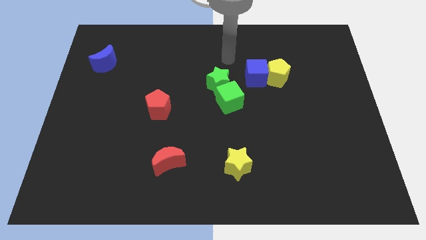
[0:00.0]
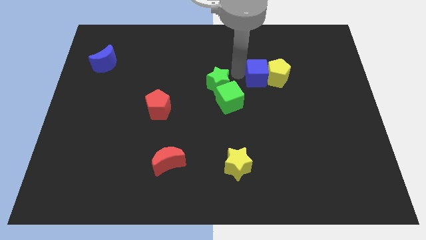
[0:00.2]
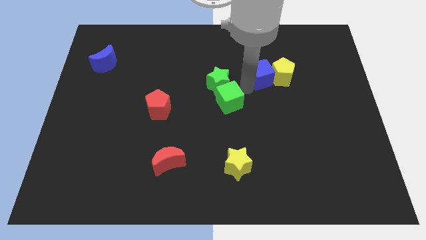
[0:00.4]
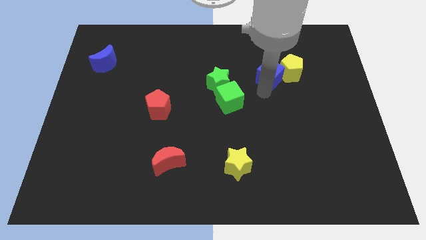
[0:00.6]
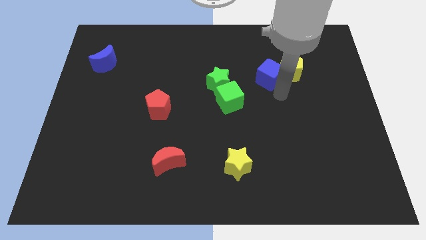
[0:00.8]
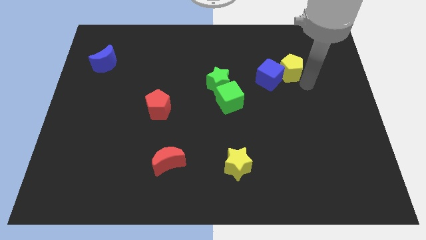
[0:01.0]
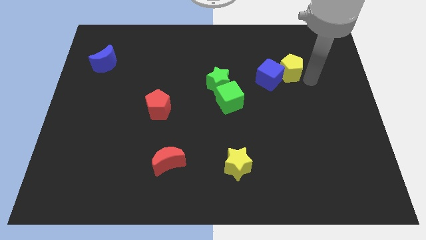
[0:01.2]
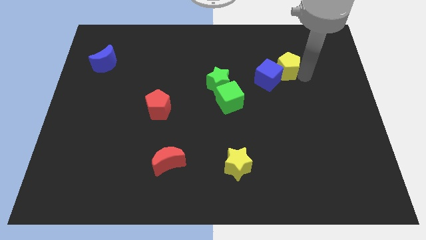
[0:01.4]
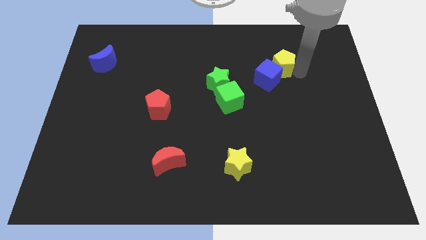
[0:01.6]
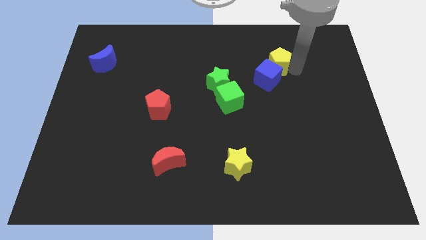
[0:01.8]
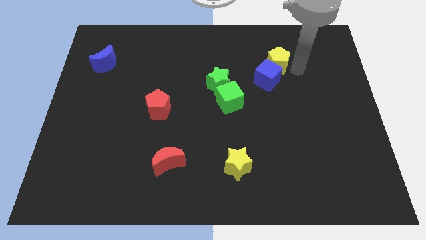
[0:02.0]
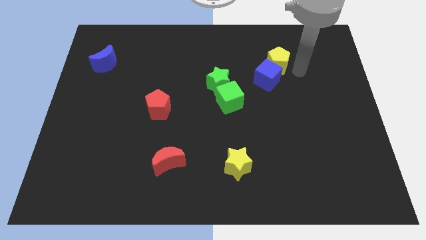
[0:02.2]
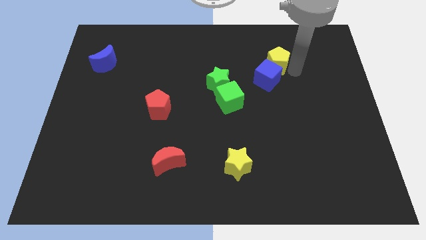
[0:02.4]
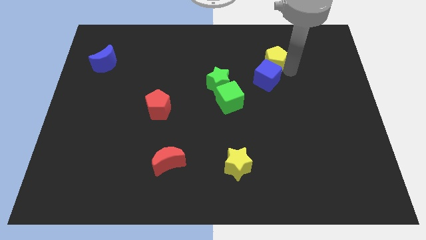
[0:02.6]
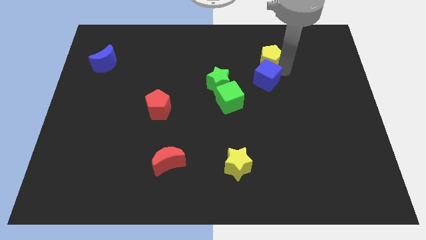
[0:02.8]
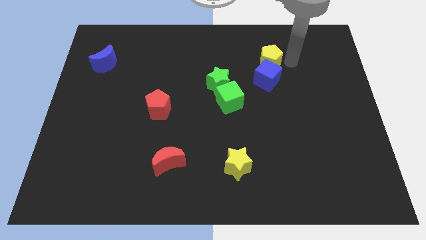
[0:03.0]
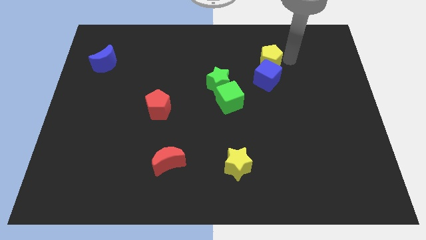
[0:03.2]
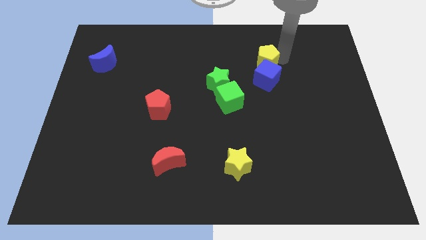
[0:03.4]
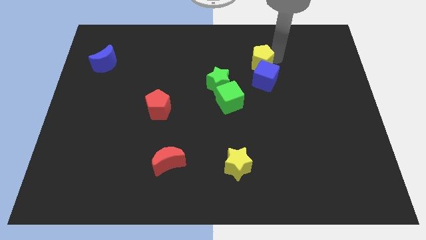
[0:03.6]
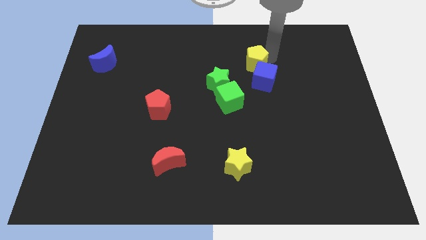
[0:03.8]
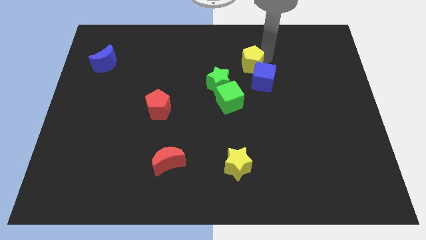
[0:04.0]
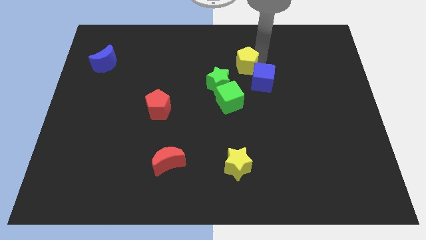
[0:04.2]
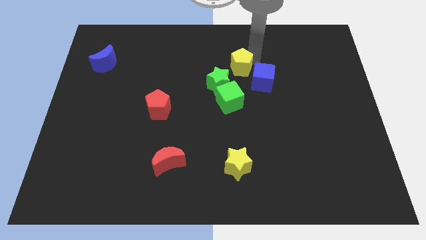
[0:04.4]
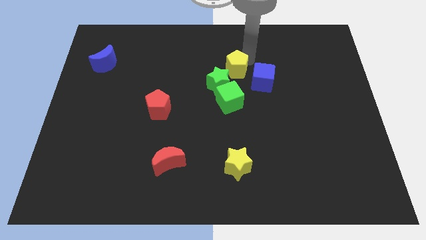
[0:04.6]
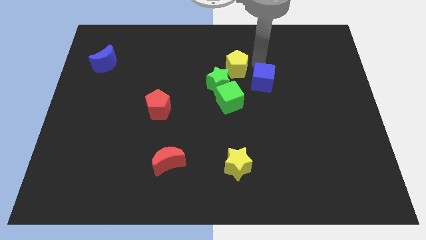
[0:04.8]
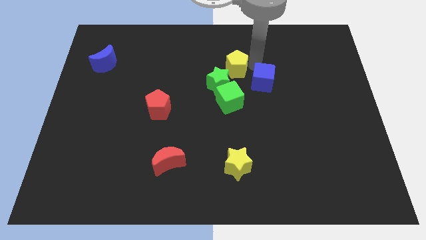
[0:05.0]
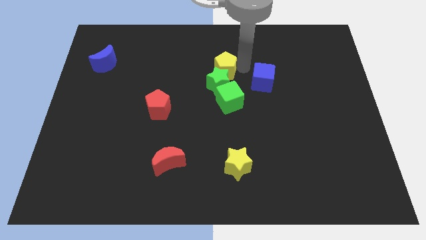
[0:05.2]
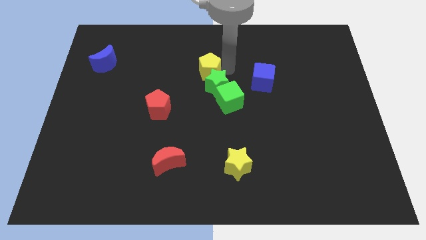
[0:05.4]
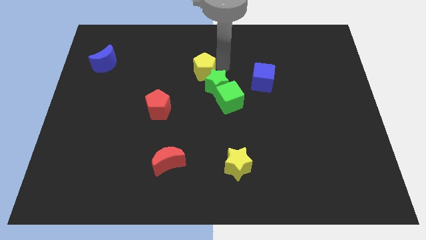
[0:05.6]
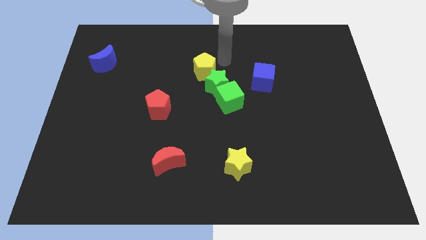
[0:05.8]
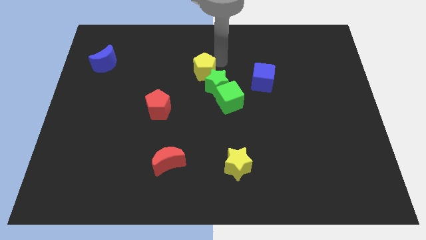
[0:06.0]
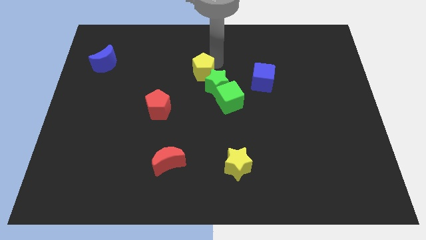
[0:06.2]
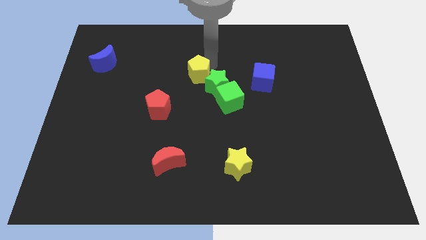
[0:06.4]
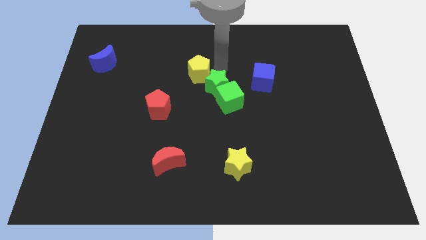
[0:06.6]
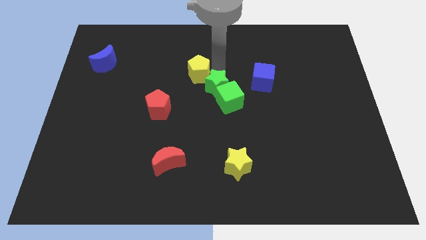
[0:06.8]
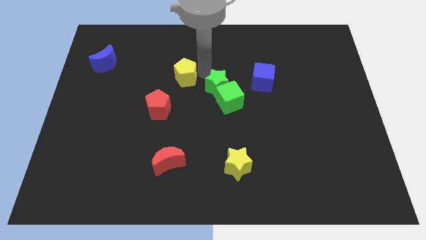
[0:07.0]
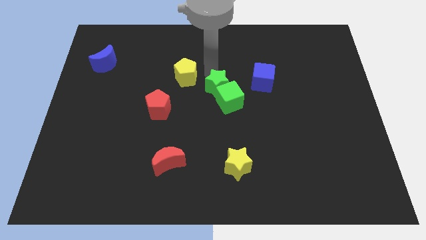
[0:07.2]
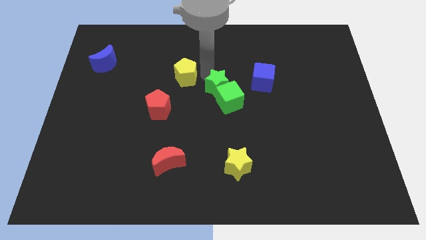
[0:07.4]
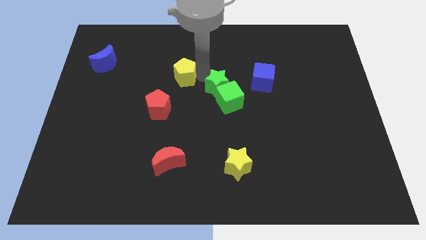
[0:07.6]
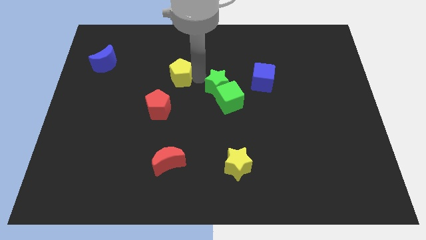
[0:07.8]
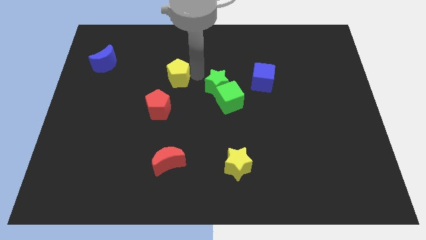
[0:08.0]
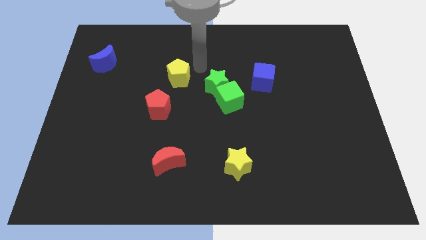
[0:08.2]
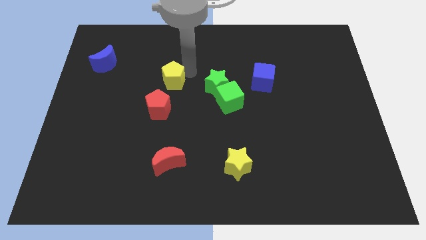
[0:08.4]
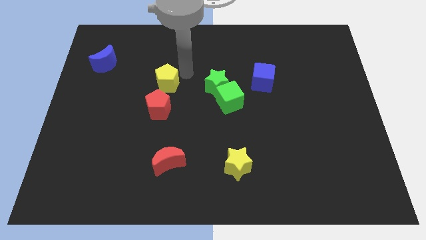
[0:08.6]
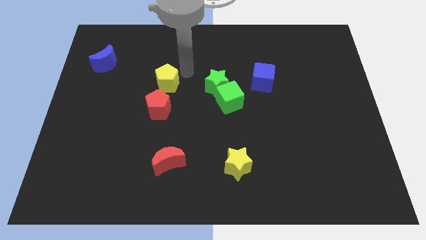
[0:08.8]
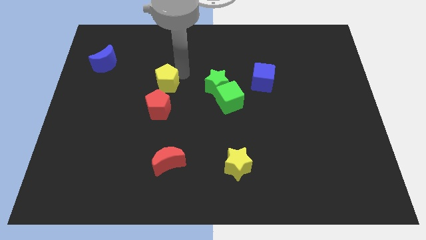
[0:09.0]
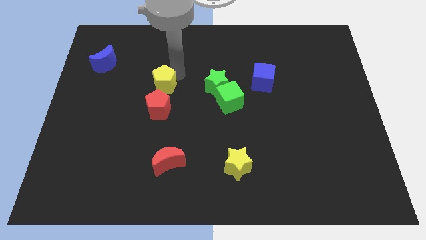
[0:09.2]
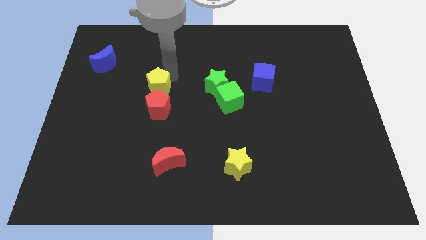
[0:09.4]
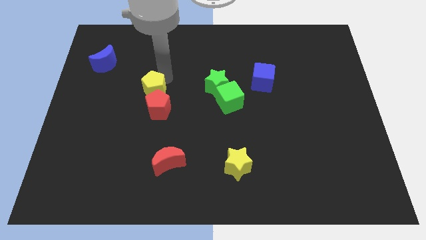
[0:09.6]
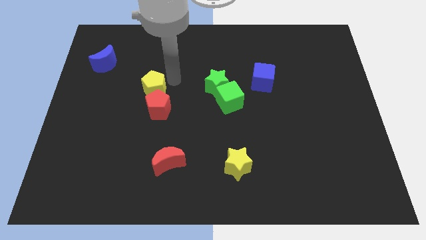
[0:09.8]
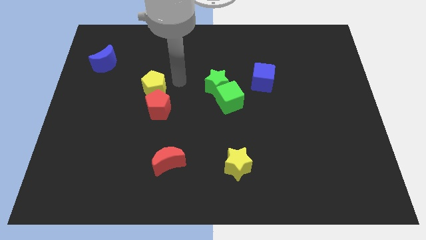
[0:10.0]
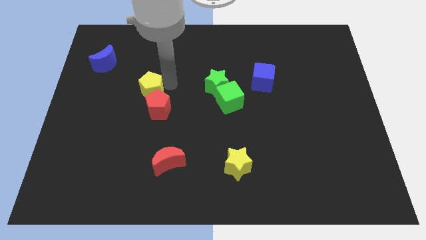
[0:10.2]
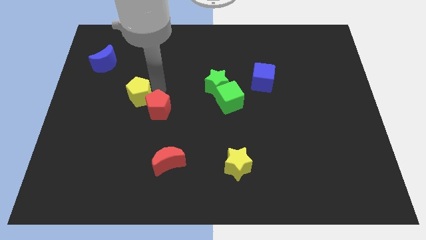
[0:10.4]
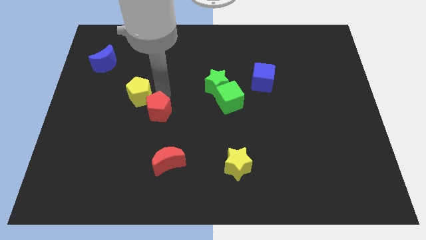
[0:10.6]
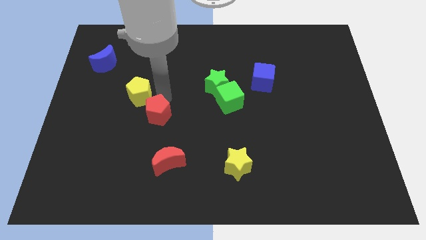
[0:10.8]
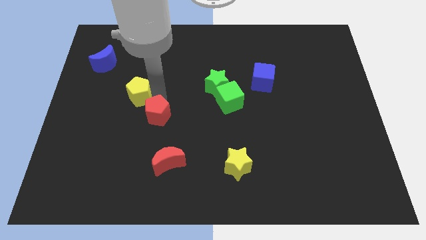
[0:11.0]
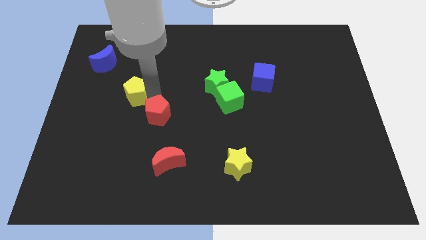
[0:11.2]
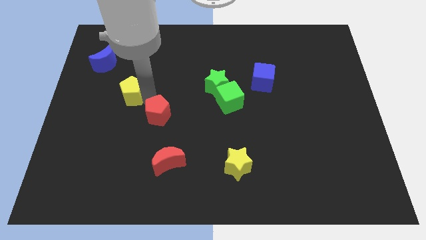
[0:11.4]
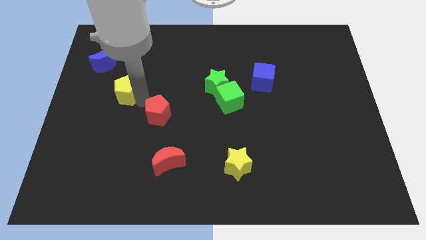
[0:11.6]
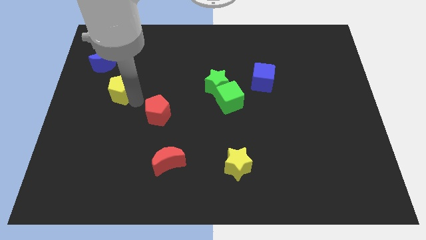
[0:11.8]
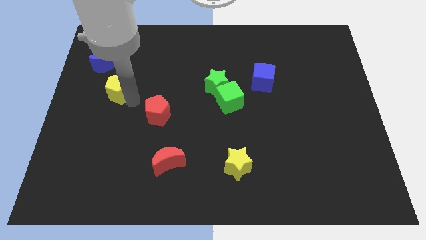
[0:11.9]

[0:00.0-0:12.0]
push the yellow pentagon below the blue moon
